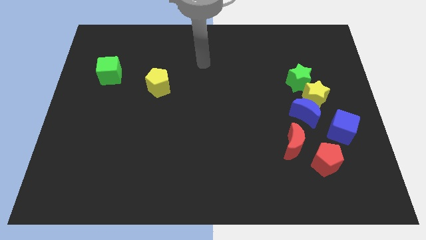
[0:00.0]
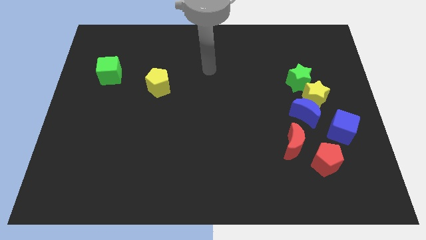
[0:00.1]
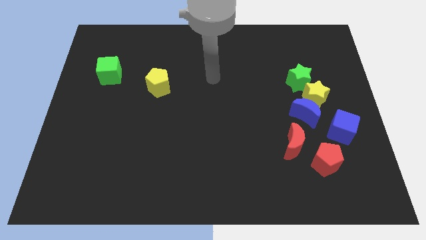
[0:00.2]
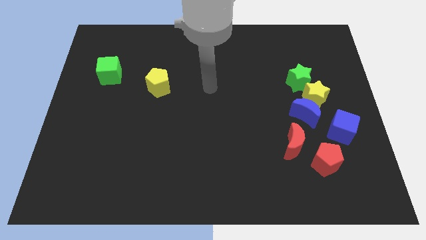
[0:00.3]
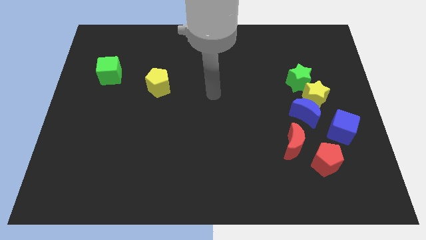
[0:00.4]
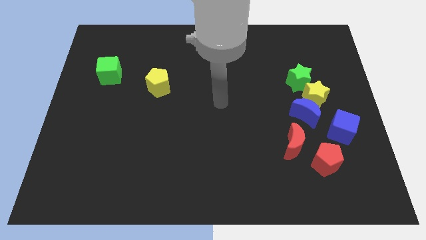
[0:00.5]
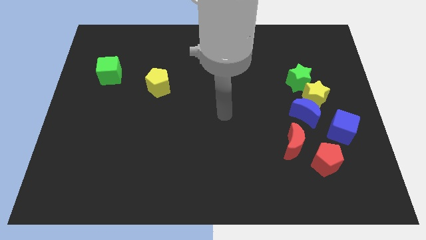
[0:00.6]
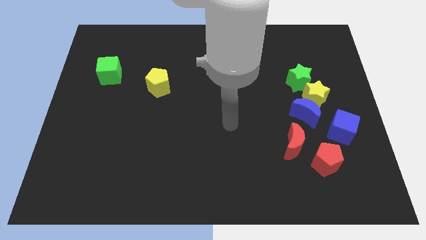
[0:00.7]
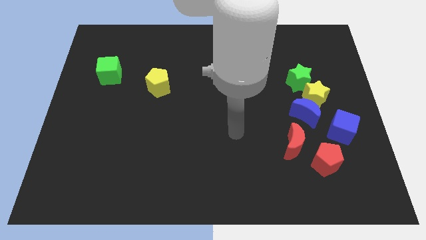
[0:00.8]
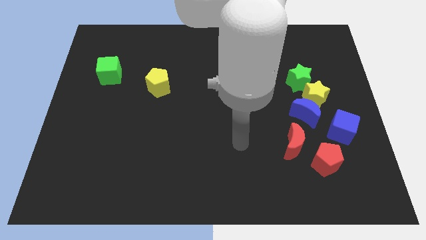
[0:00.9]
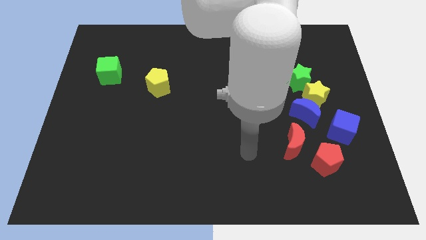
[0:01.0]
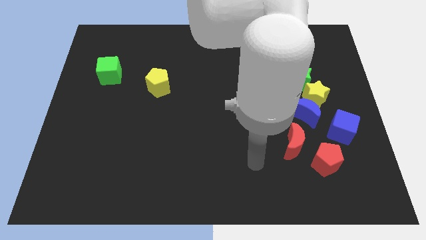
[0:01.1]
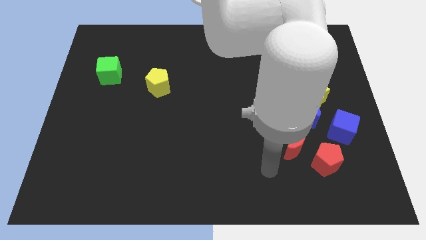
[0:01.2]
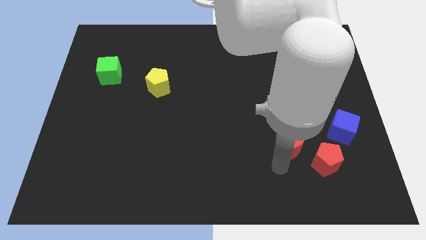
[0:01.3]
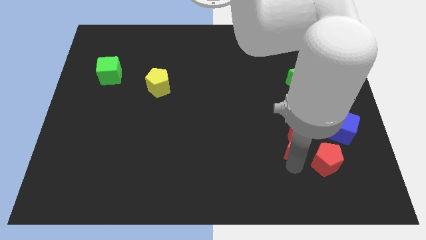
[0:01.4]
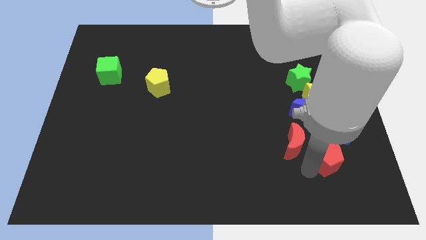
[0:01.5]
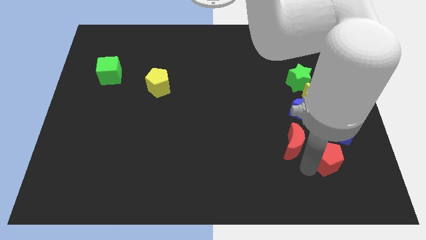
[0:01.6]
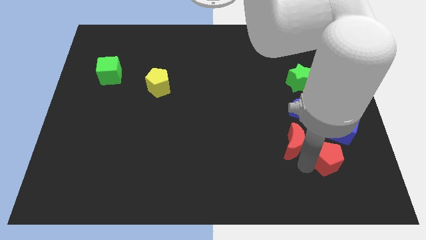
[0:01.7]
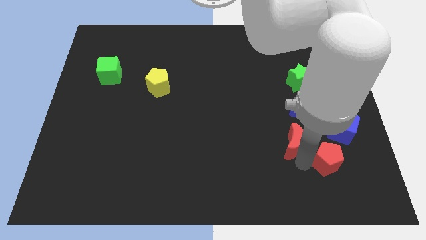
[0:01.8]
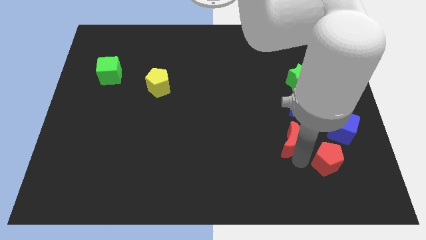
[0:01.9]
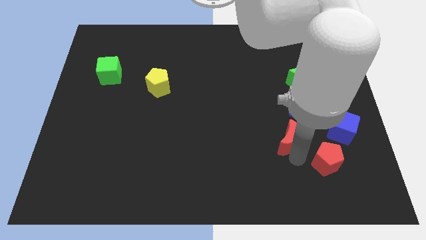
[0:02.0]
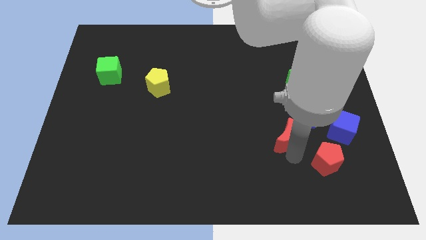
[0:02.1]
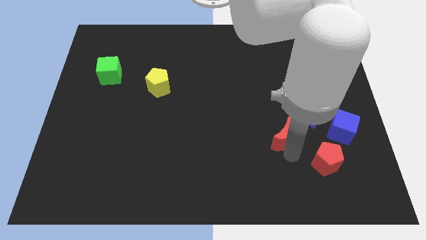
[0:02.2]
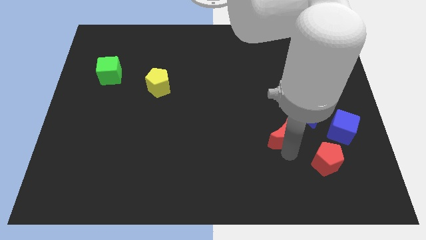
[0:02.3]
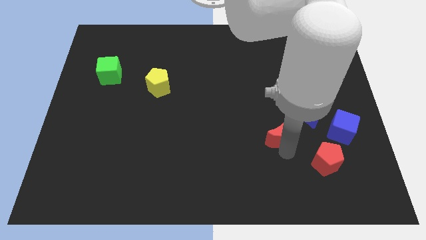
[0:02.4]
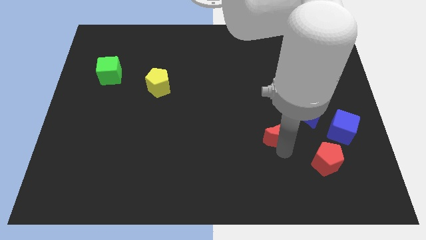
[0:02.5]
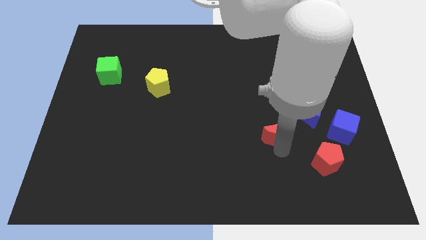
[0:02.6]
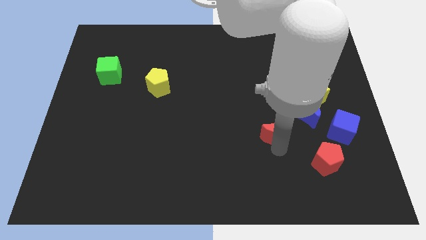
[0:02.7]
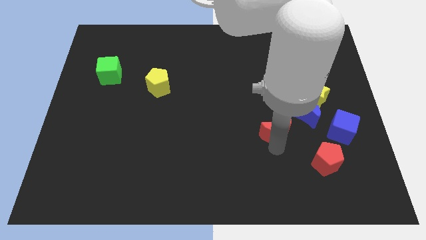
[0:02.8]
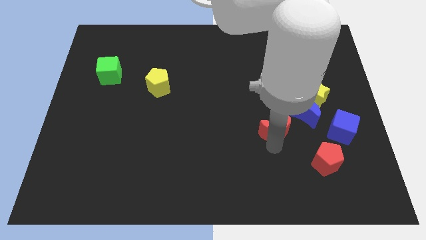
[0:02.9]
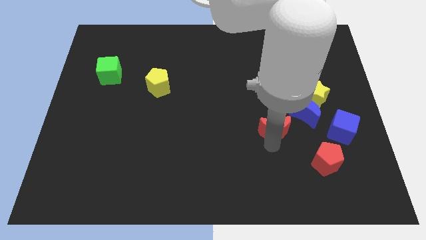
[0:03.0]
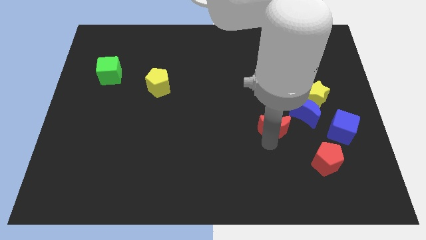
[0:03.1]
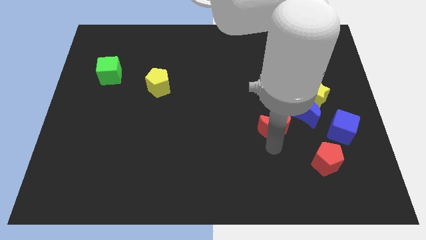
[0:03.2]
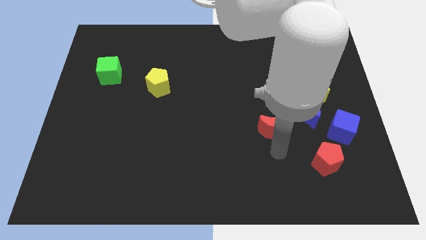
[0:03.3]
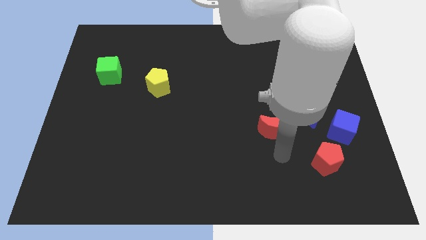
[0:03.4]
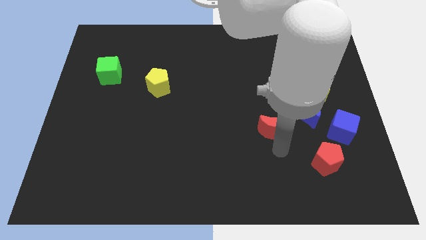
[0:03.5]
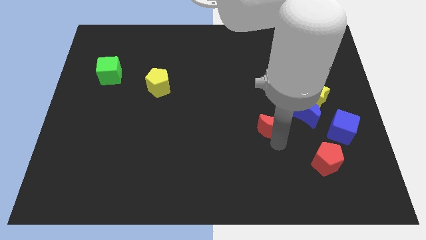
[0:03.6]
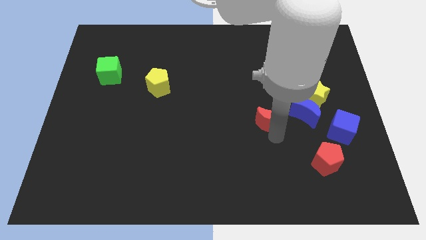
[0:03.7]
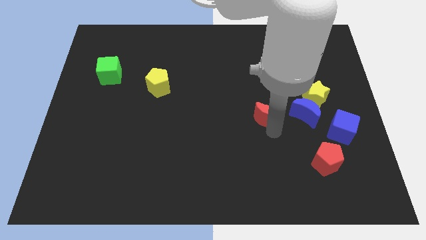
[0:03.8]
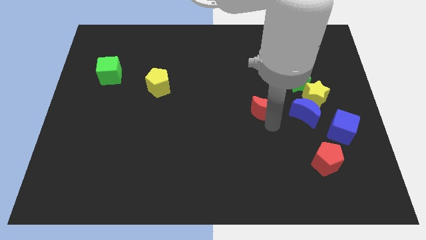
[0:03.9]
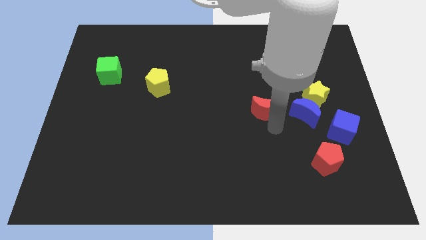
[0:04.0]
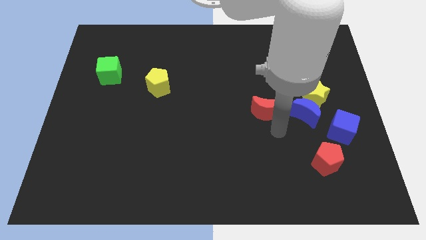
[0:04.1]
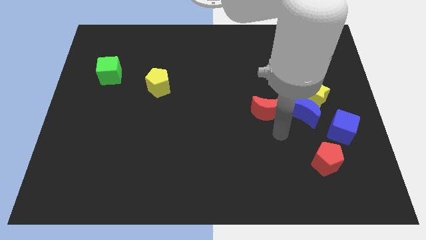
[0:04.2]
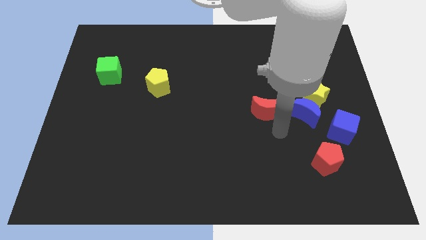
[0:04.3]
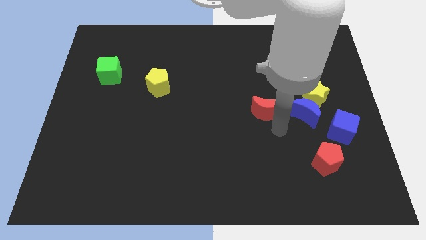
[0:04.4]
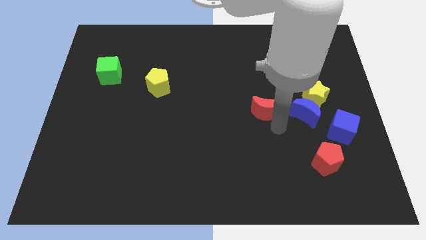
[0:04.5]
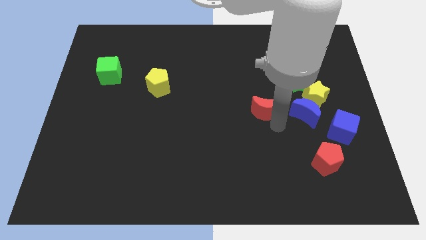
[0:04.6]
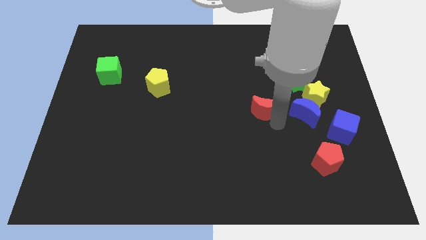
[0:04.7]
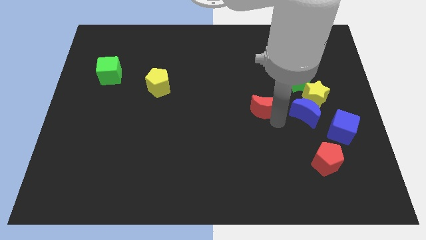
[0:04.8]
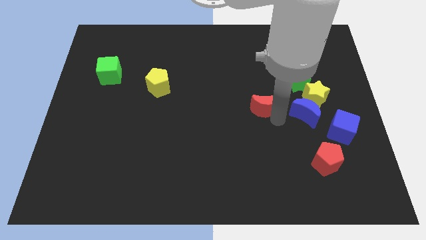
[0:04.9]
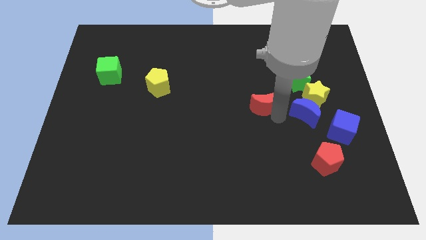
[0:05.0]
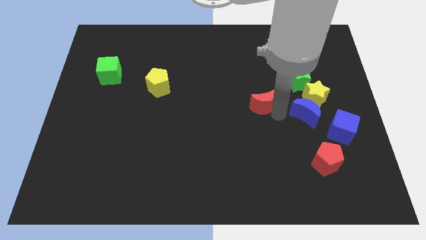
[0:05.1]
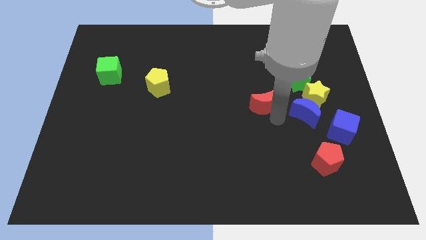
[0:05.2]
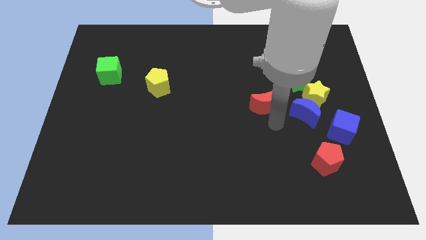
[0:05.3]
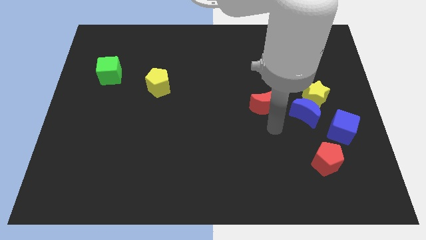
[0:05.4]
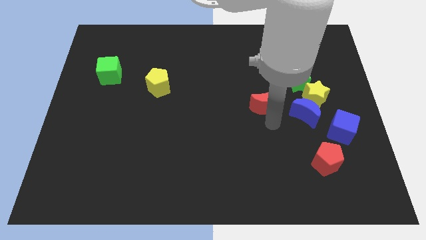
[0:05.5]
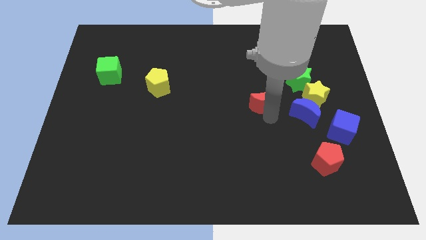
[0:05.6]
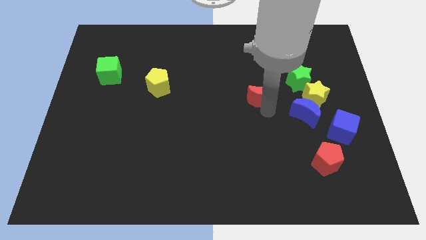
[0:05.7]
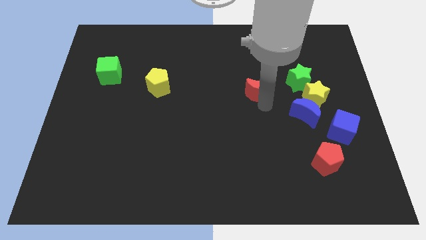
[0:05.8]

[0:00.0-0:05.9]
slide the red moon just left of the green star

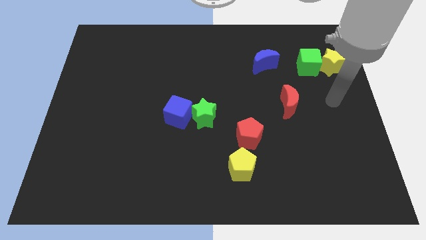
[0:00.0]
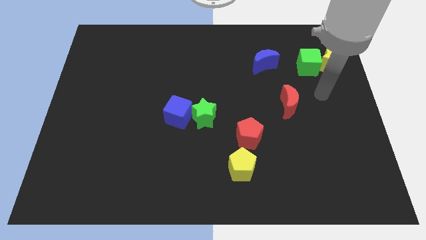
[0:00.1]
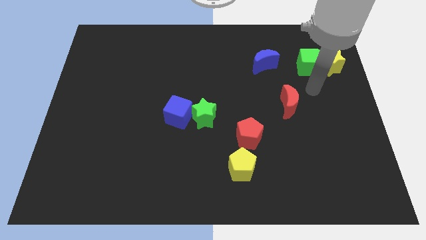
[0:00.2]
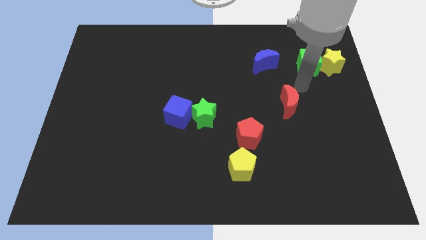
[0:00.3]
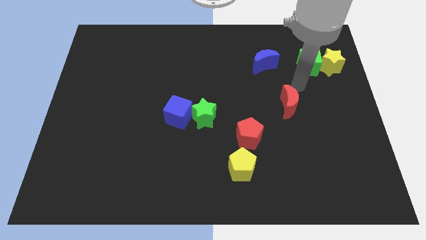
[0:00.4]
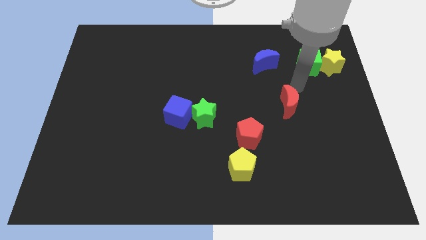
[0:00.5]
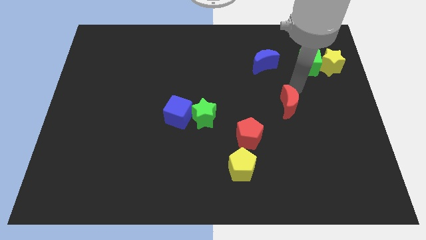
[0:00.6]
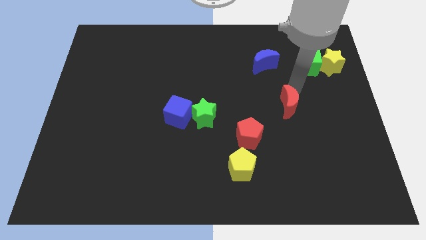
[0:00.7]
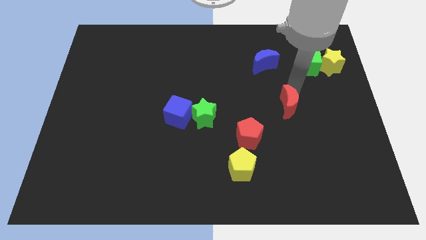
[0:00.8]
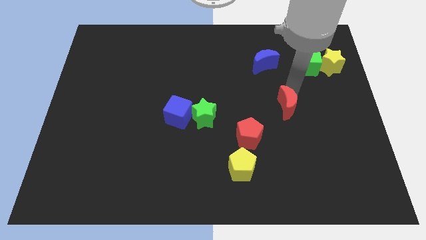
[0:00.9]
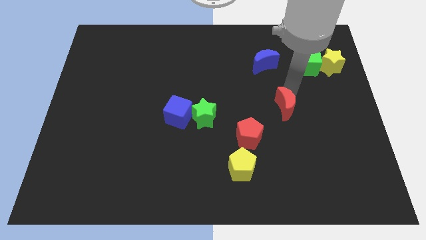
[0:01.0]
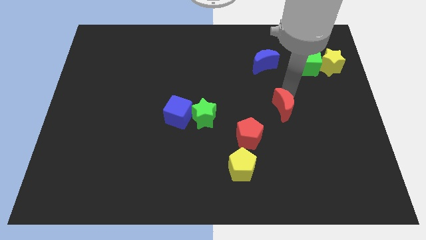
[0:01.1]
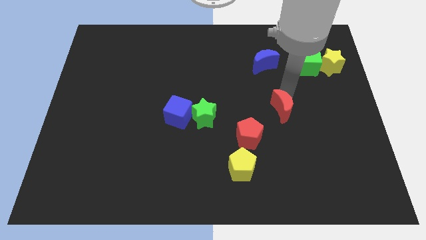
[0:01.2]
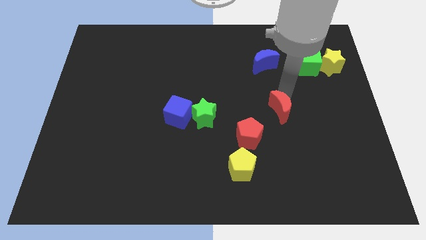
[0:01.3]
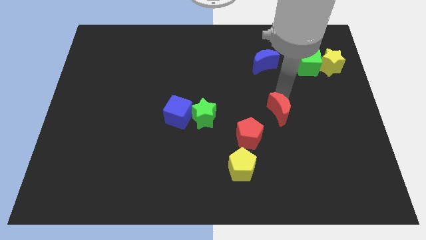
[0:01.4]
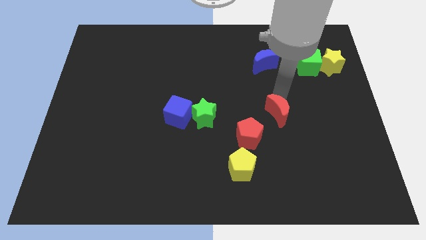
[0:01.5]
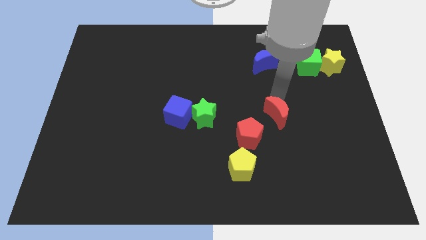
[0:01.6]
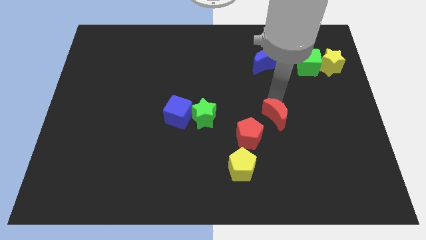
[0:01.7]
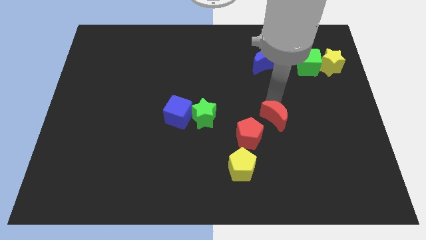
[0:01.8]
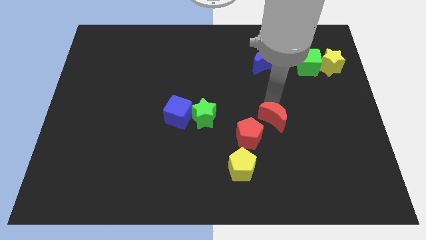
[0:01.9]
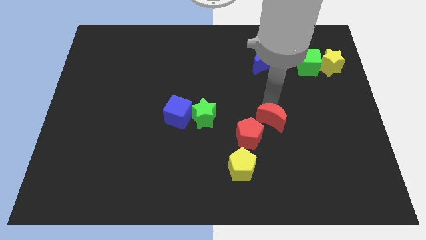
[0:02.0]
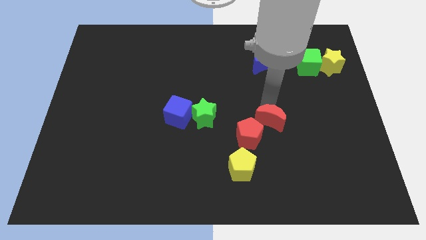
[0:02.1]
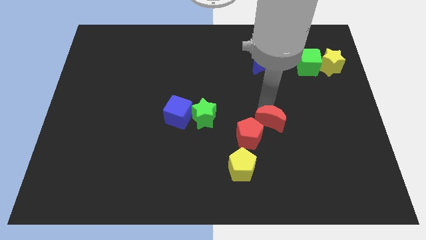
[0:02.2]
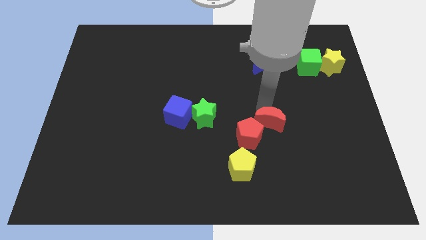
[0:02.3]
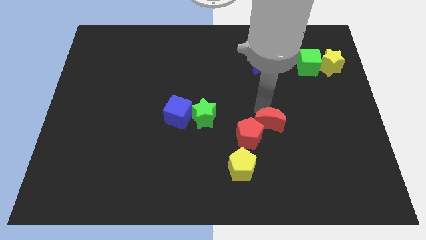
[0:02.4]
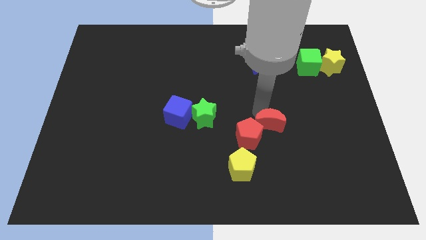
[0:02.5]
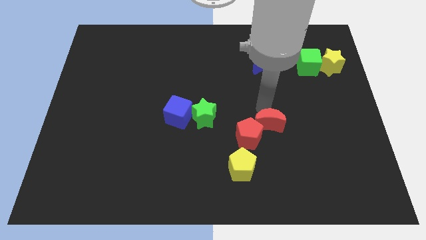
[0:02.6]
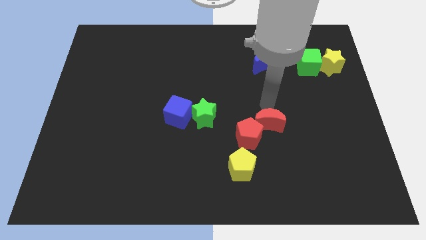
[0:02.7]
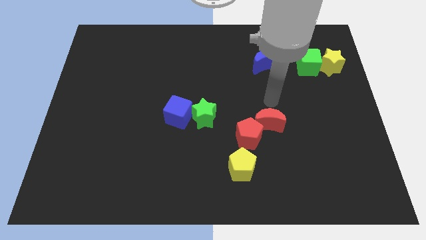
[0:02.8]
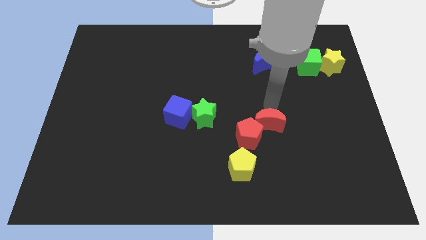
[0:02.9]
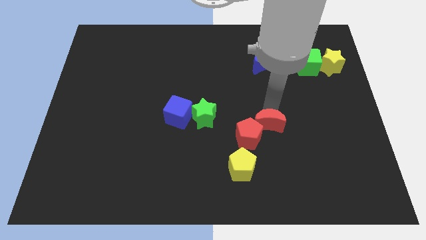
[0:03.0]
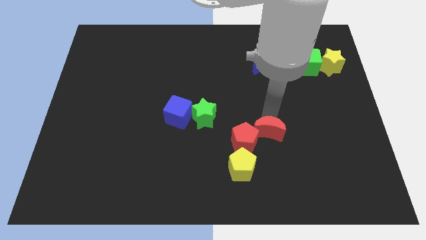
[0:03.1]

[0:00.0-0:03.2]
put the red moon diagonally up and to the right of the yellow pentagon
